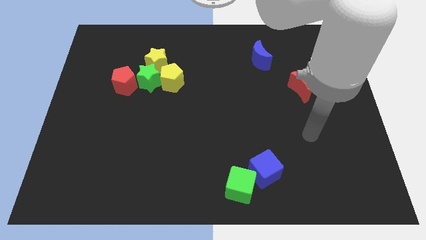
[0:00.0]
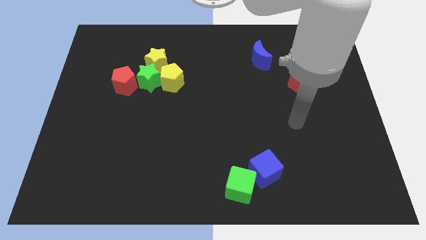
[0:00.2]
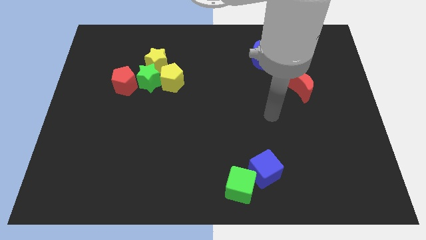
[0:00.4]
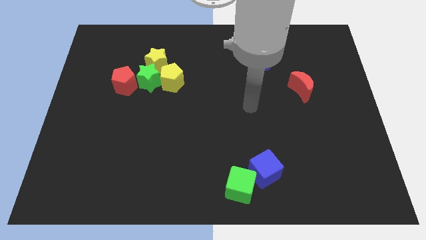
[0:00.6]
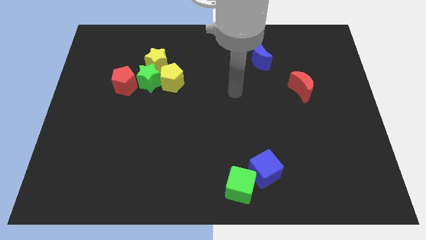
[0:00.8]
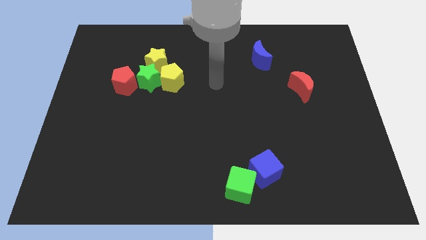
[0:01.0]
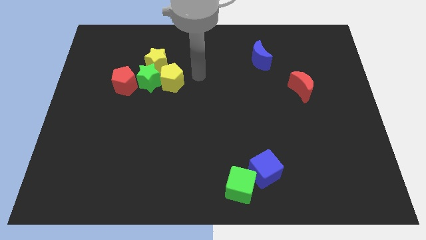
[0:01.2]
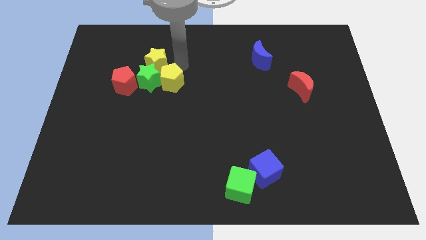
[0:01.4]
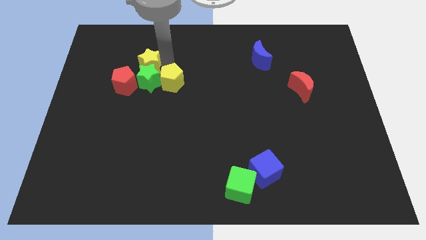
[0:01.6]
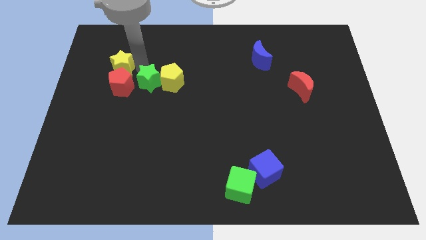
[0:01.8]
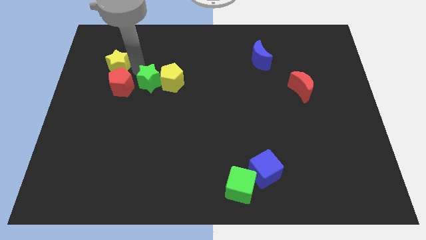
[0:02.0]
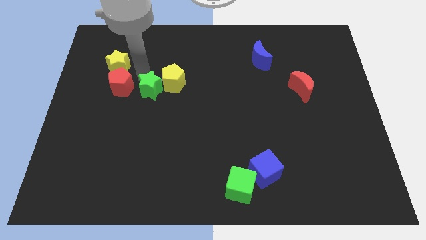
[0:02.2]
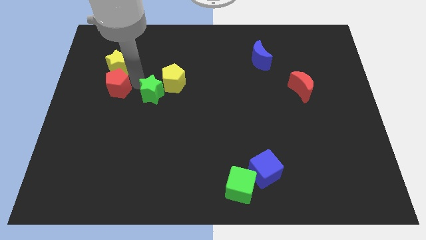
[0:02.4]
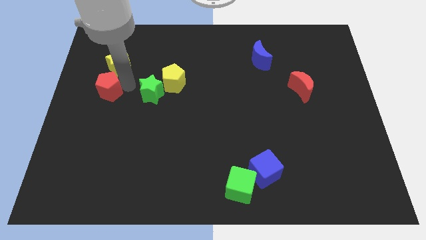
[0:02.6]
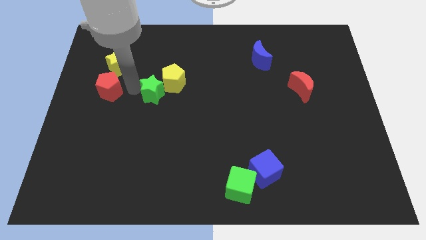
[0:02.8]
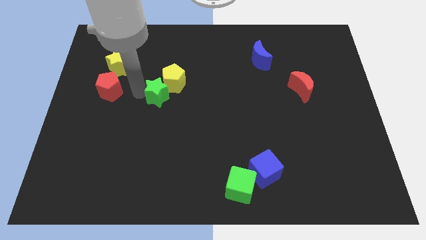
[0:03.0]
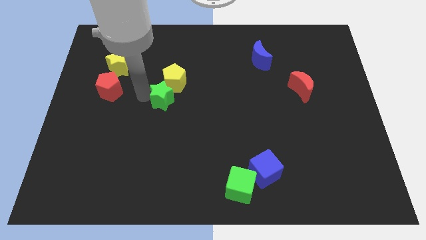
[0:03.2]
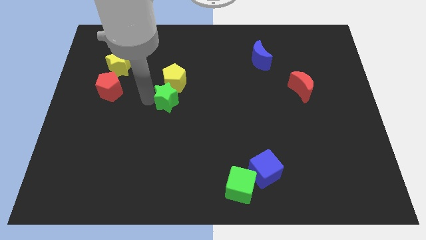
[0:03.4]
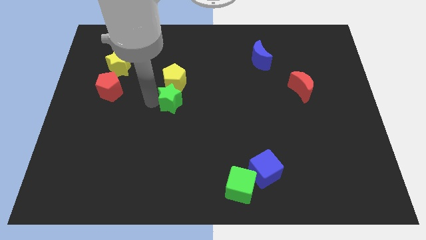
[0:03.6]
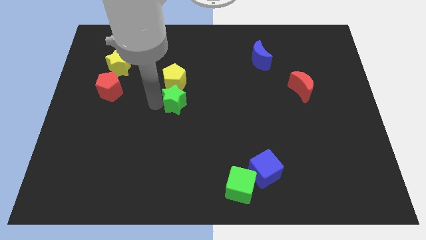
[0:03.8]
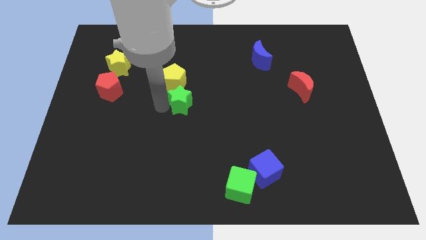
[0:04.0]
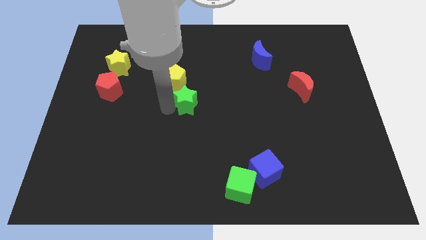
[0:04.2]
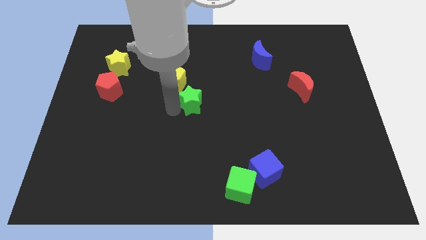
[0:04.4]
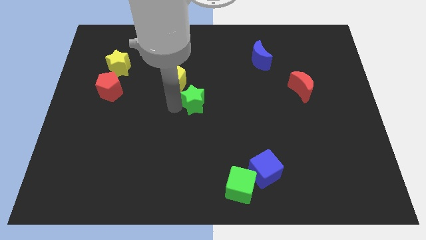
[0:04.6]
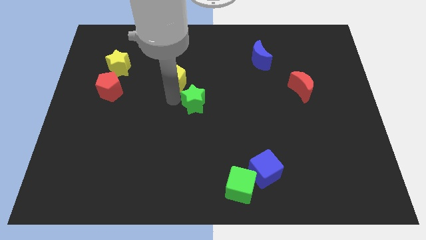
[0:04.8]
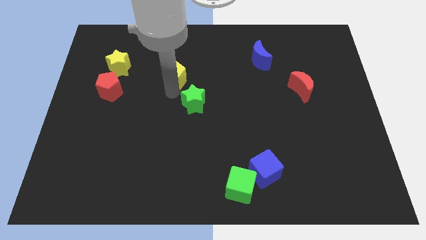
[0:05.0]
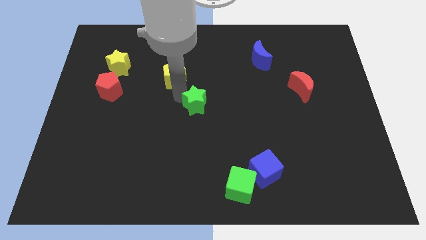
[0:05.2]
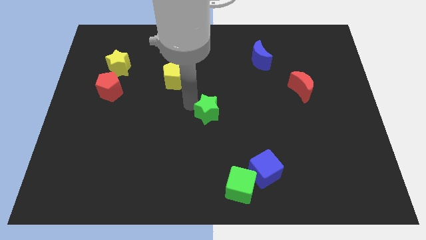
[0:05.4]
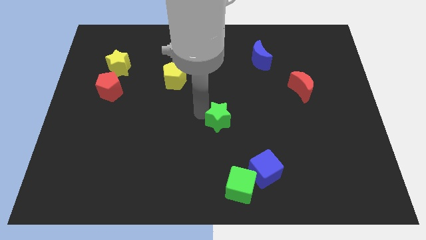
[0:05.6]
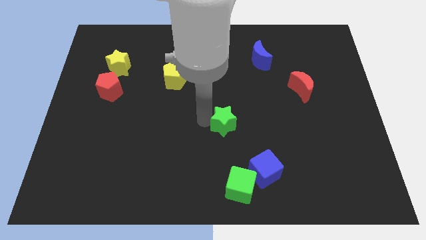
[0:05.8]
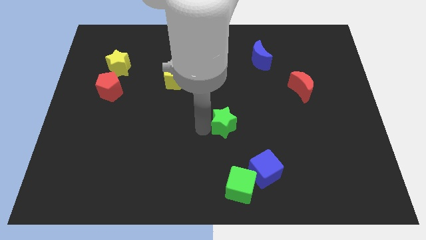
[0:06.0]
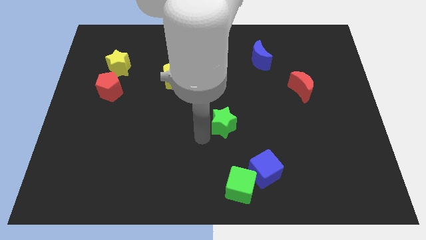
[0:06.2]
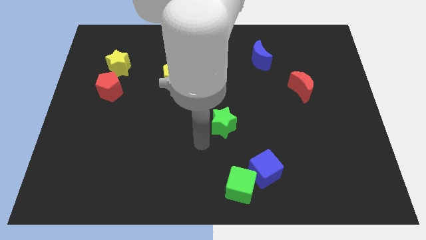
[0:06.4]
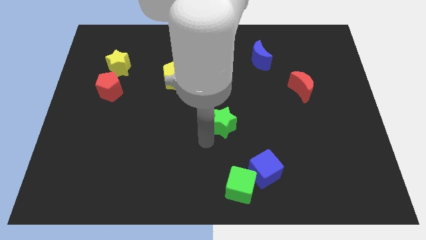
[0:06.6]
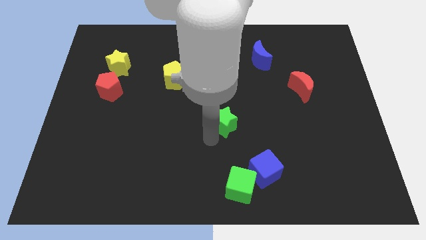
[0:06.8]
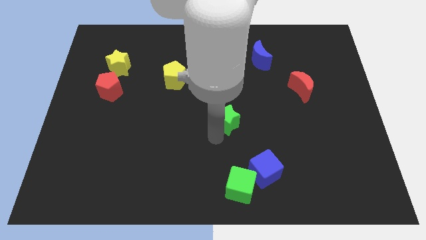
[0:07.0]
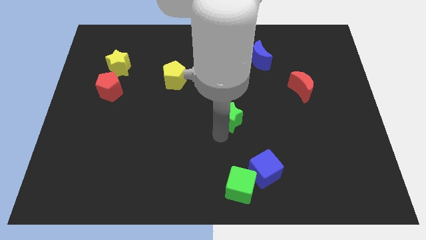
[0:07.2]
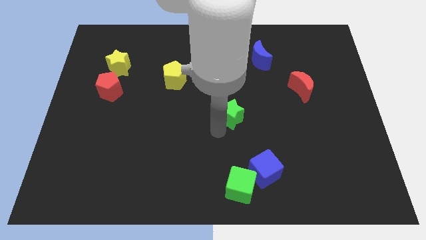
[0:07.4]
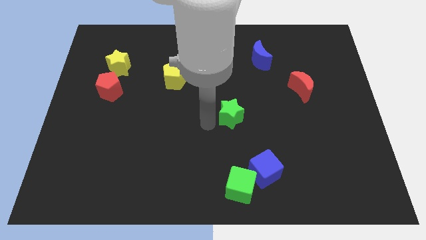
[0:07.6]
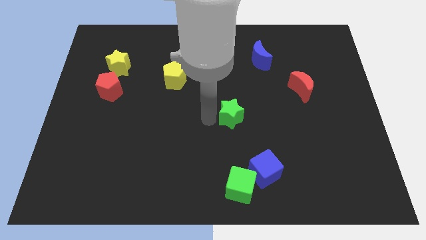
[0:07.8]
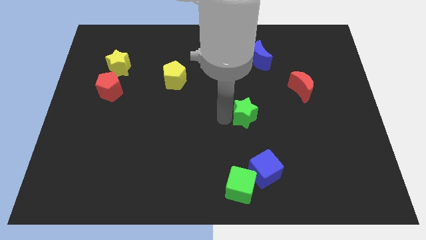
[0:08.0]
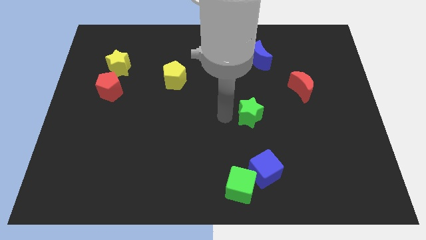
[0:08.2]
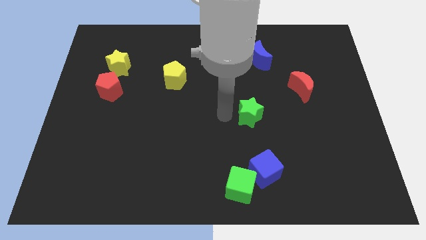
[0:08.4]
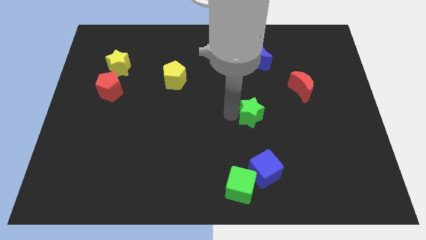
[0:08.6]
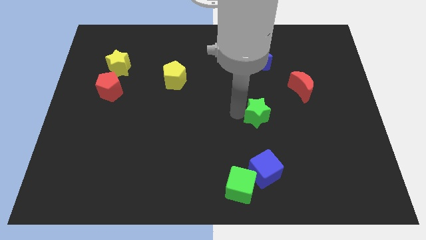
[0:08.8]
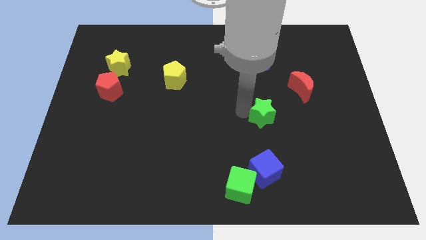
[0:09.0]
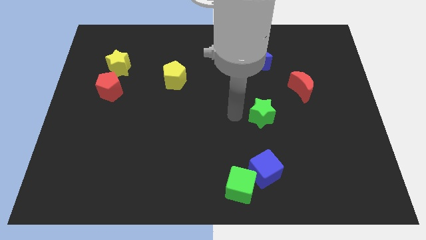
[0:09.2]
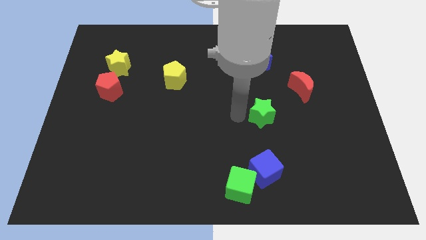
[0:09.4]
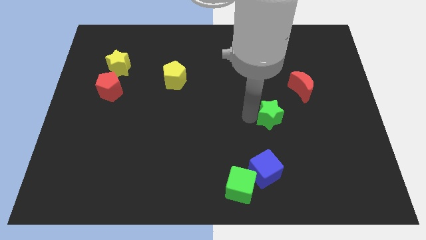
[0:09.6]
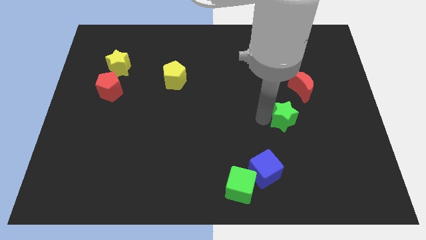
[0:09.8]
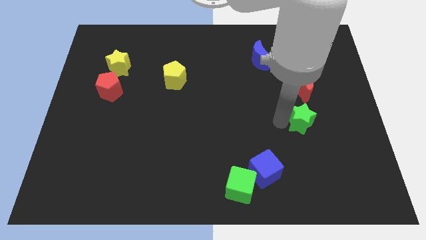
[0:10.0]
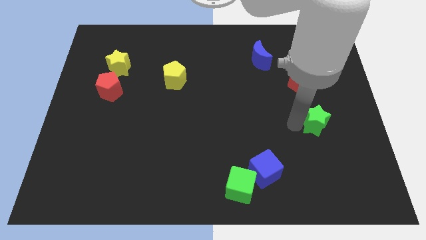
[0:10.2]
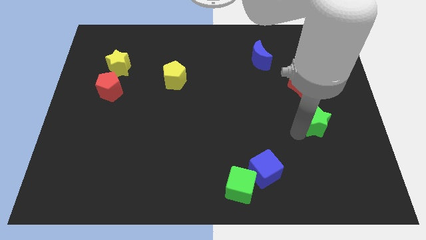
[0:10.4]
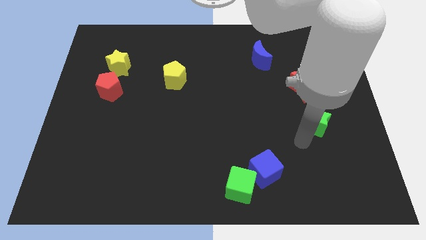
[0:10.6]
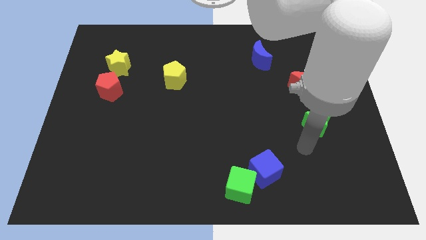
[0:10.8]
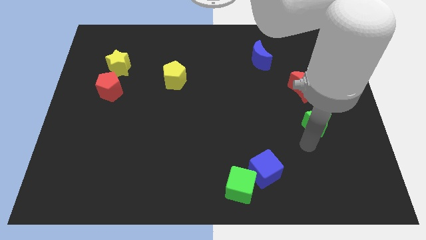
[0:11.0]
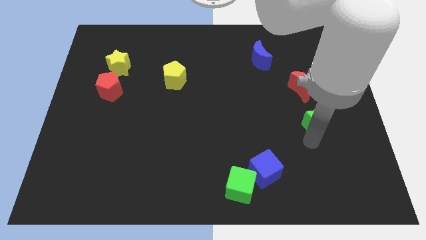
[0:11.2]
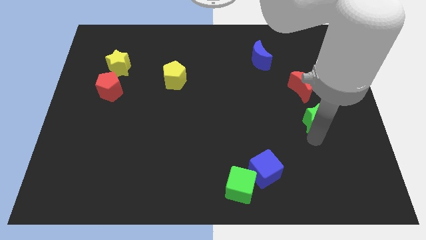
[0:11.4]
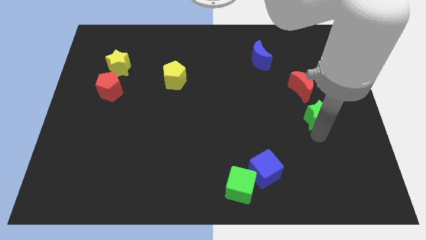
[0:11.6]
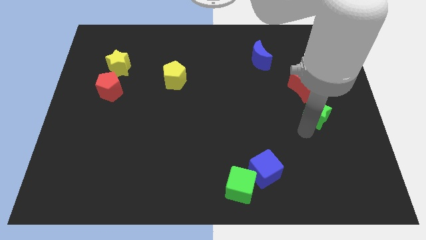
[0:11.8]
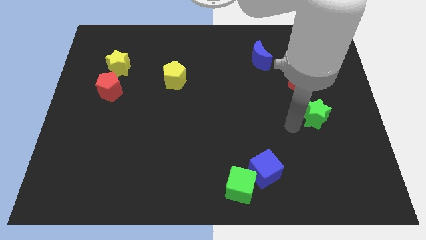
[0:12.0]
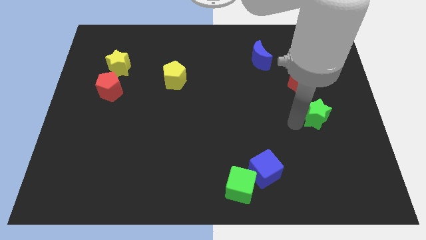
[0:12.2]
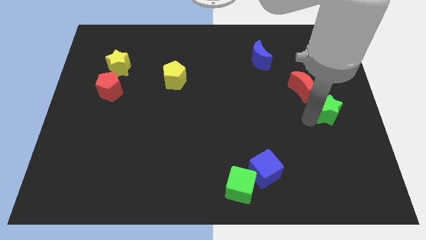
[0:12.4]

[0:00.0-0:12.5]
slide the green star to the right side of the board
